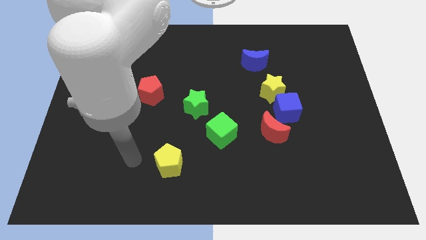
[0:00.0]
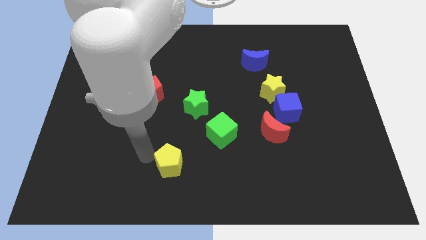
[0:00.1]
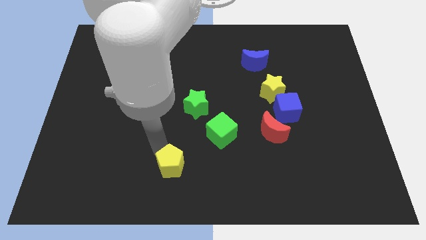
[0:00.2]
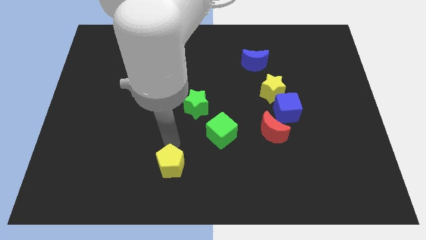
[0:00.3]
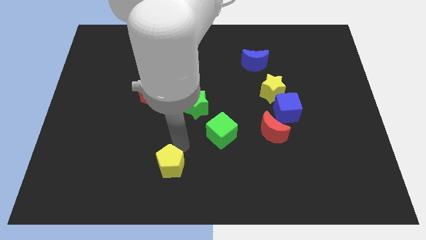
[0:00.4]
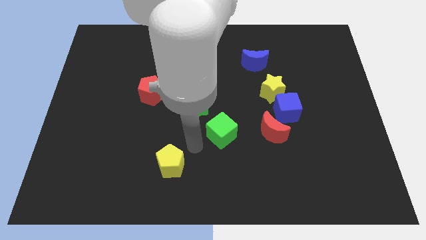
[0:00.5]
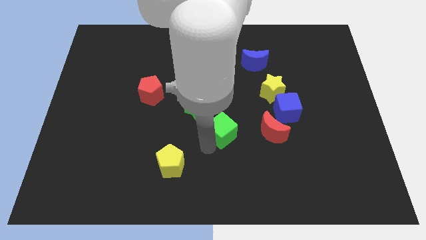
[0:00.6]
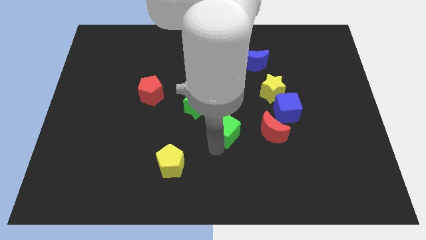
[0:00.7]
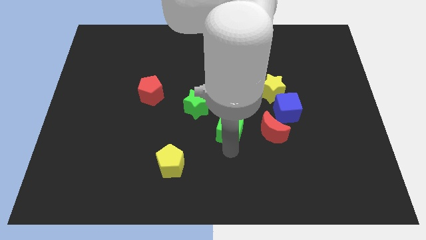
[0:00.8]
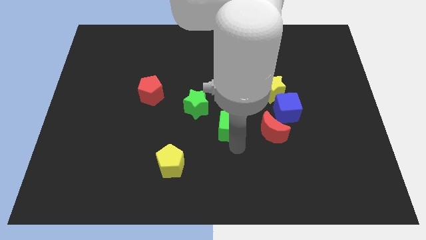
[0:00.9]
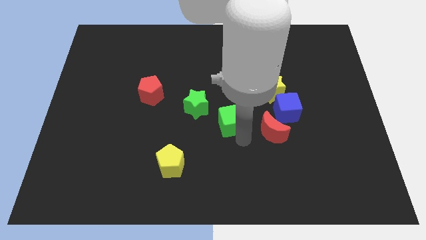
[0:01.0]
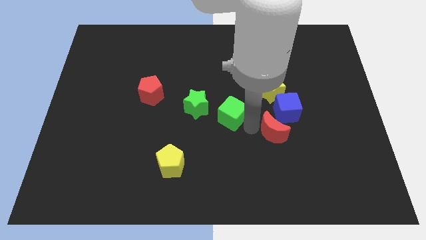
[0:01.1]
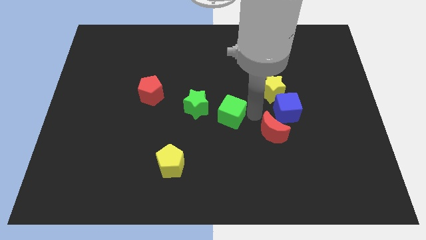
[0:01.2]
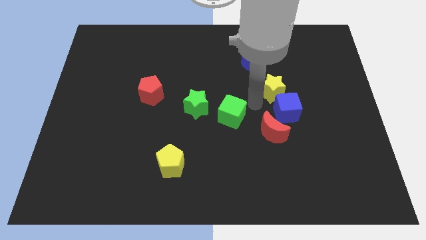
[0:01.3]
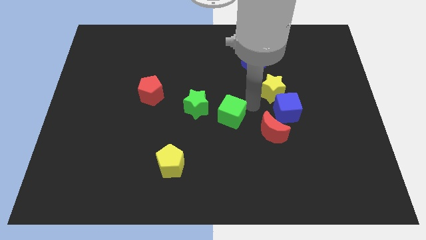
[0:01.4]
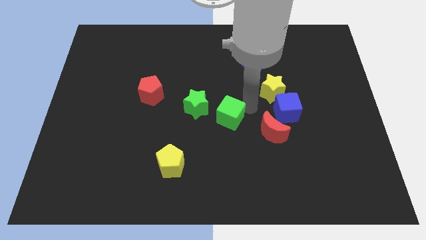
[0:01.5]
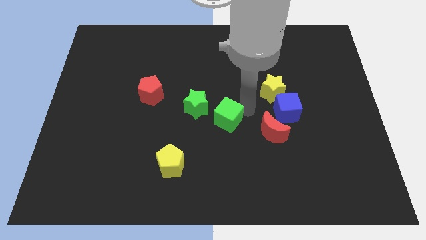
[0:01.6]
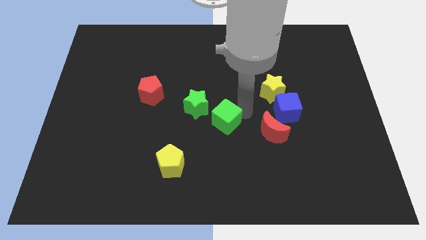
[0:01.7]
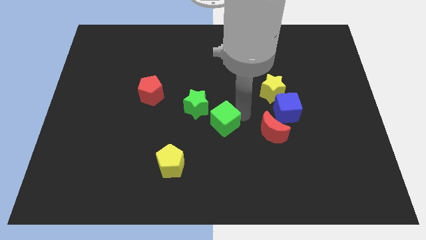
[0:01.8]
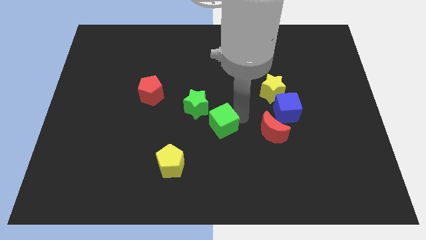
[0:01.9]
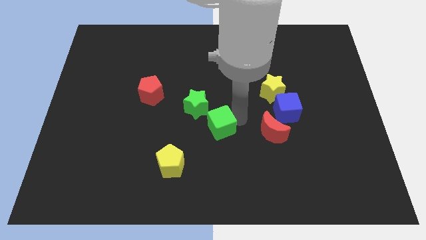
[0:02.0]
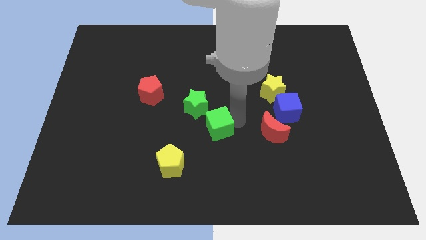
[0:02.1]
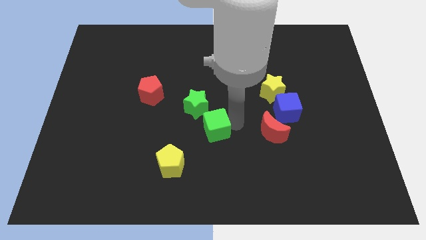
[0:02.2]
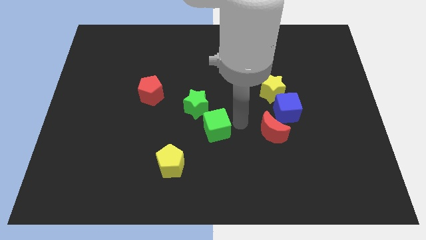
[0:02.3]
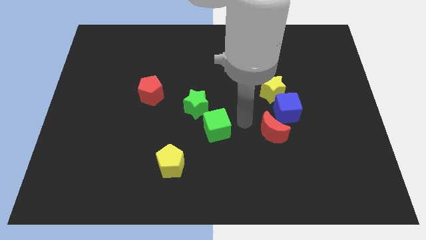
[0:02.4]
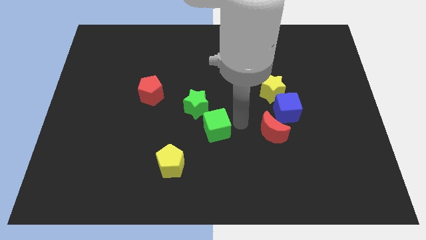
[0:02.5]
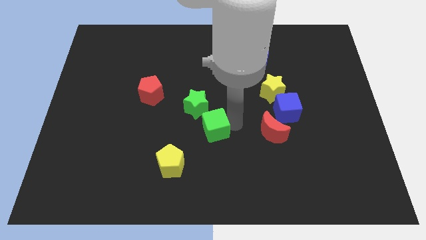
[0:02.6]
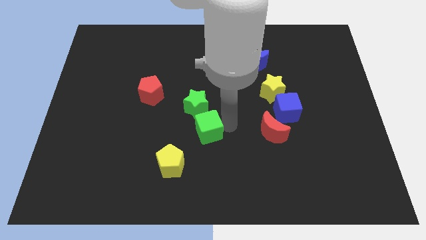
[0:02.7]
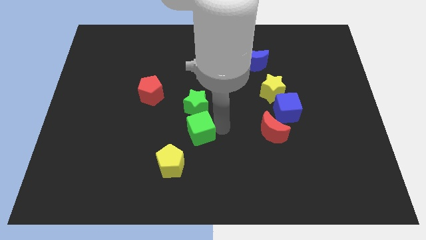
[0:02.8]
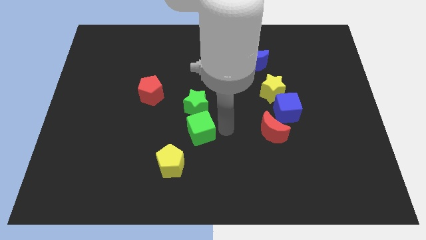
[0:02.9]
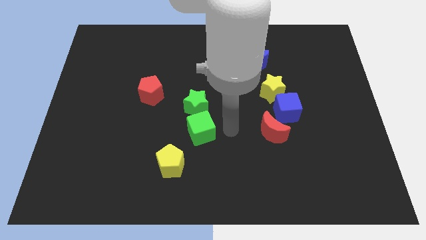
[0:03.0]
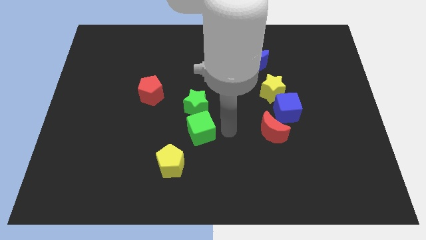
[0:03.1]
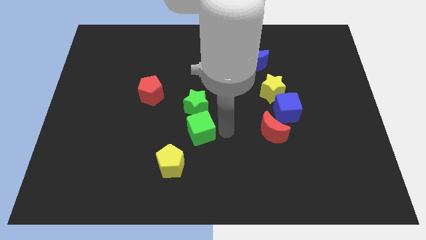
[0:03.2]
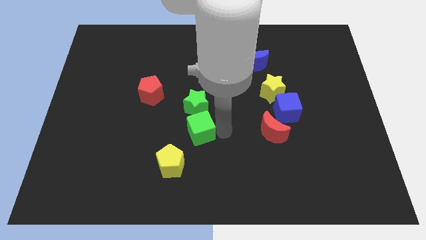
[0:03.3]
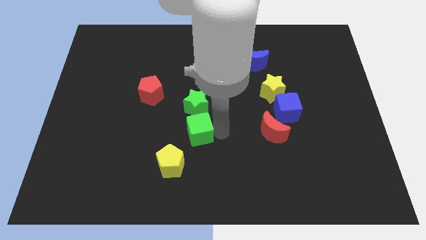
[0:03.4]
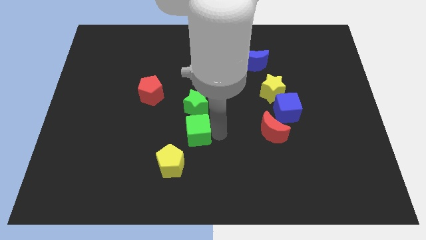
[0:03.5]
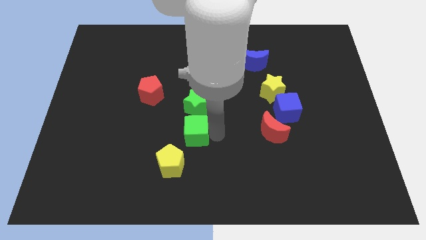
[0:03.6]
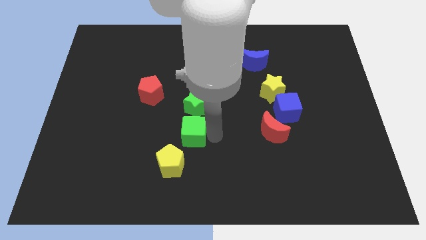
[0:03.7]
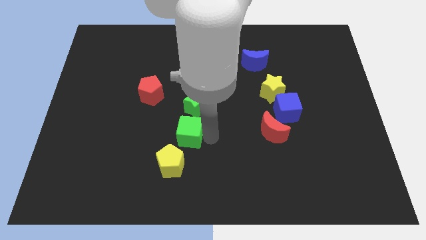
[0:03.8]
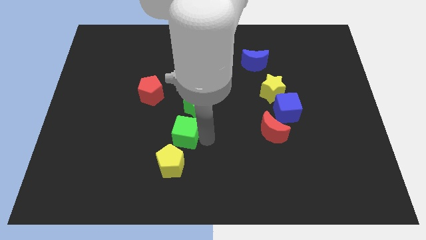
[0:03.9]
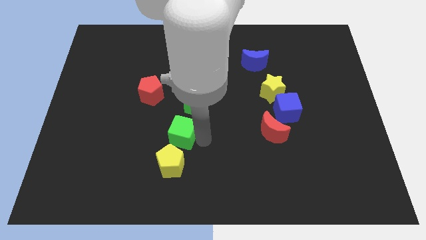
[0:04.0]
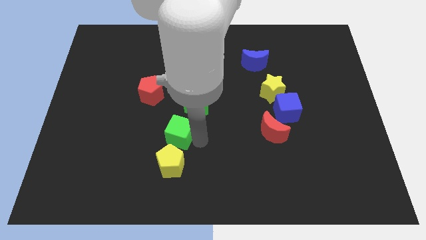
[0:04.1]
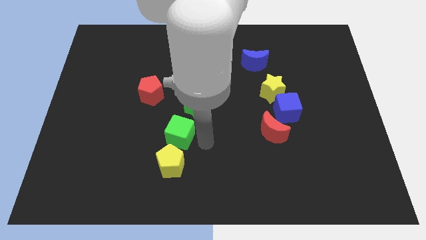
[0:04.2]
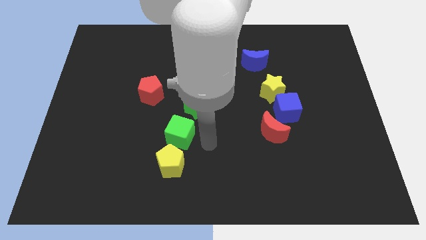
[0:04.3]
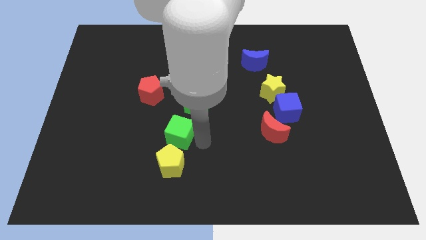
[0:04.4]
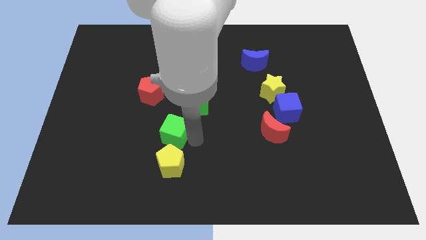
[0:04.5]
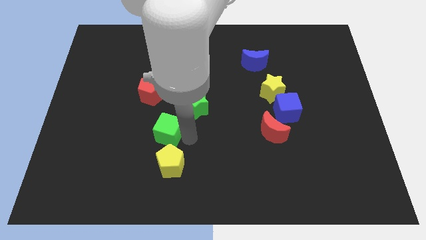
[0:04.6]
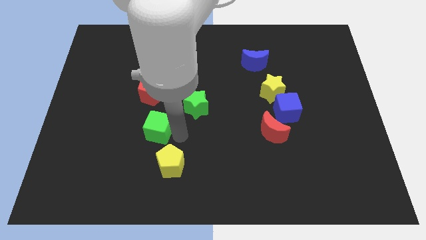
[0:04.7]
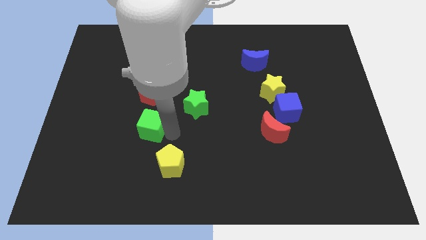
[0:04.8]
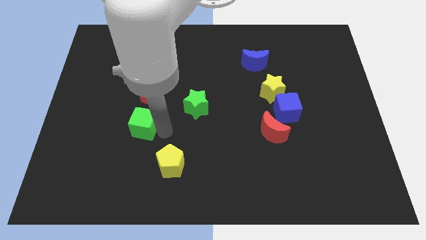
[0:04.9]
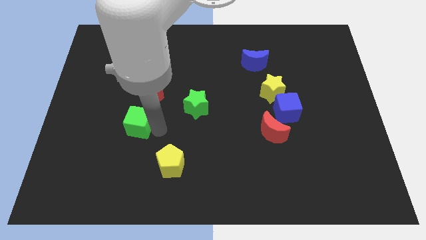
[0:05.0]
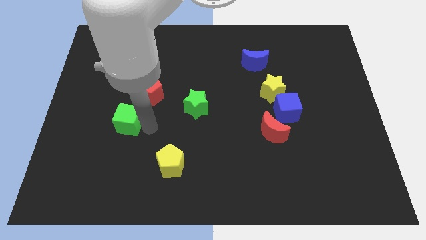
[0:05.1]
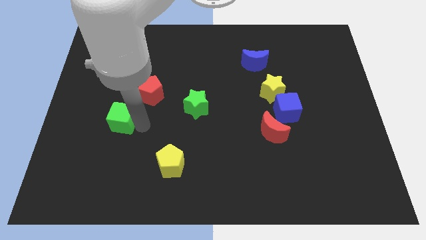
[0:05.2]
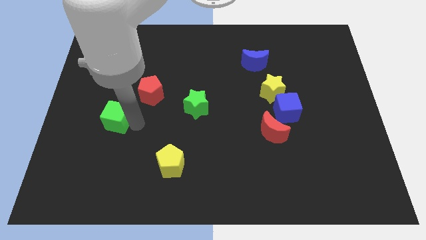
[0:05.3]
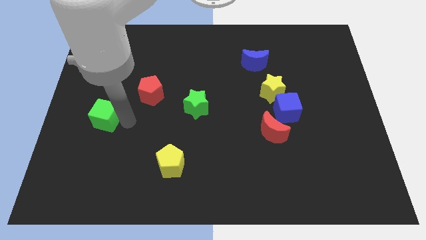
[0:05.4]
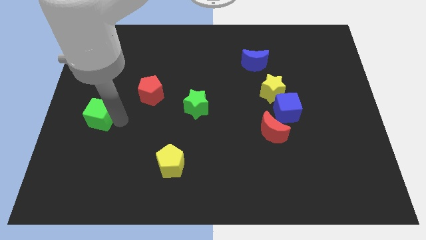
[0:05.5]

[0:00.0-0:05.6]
slide the green cube to the center left

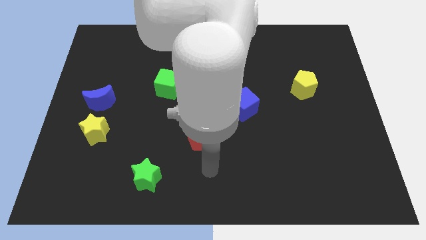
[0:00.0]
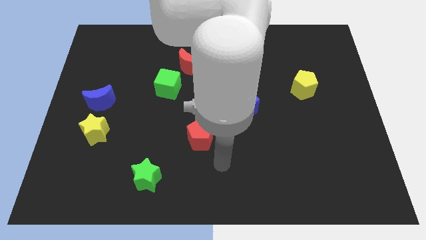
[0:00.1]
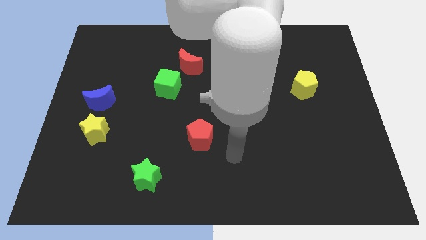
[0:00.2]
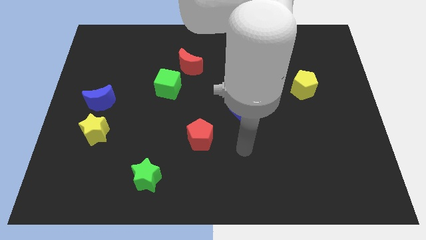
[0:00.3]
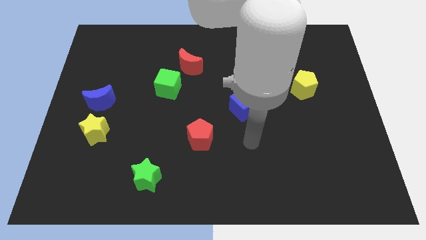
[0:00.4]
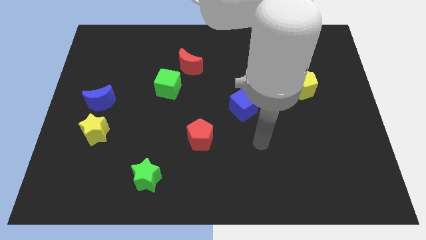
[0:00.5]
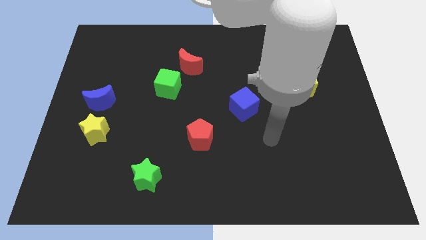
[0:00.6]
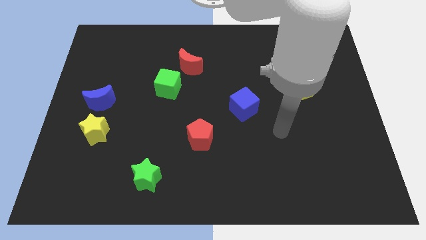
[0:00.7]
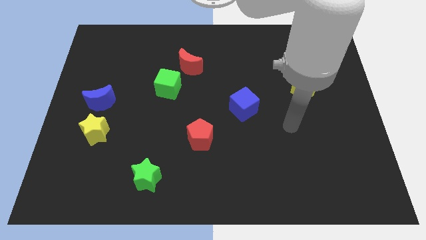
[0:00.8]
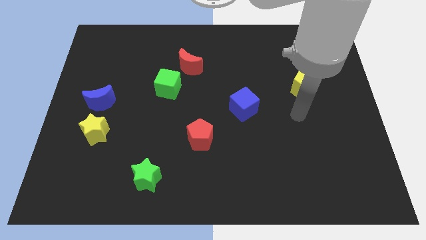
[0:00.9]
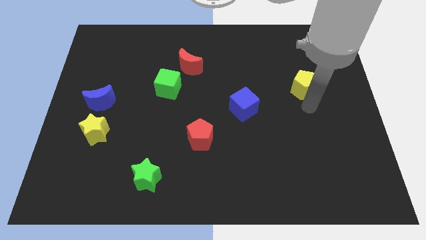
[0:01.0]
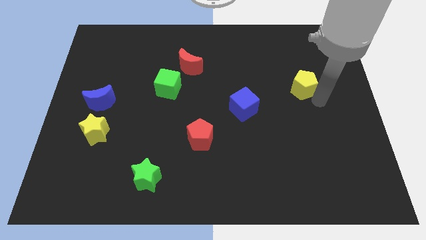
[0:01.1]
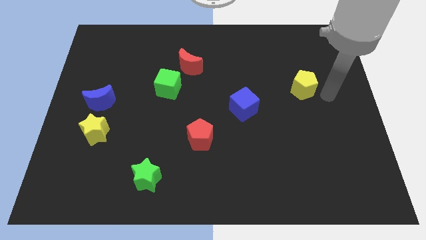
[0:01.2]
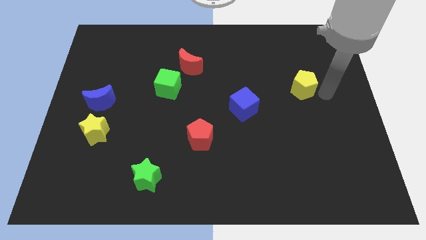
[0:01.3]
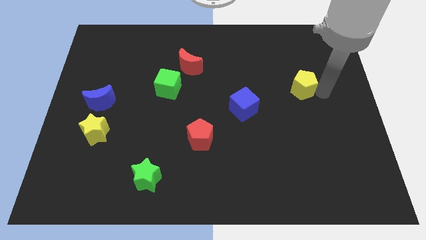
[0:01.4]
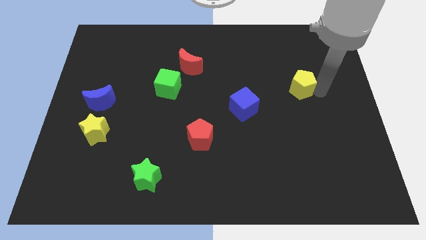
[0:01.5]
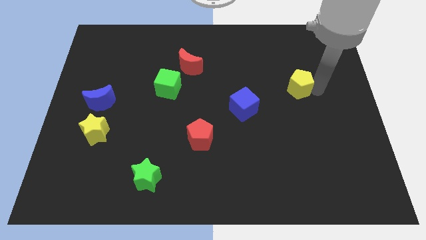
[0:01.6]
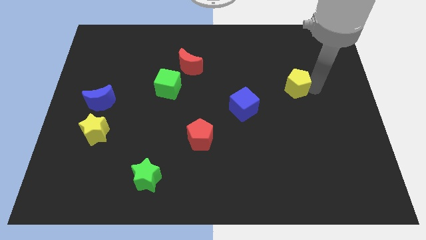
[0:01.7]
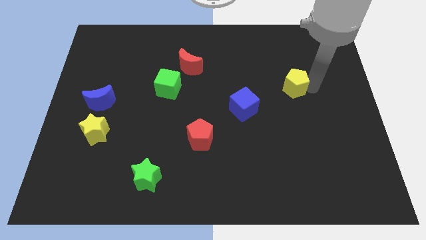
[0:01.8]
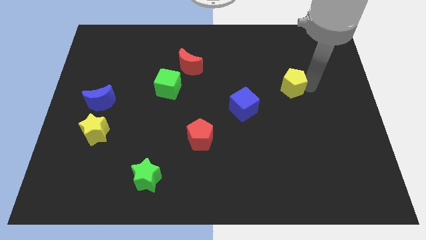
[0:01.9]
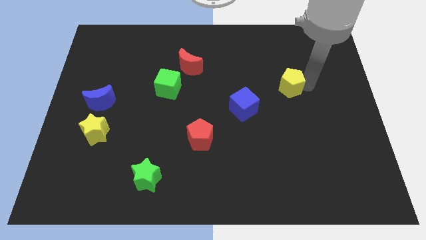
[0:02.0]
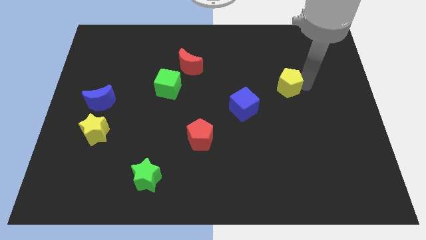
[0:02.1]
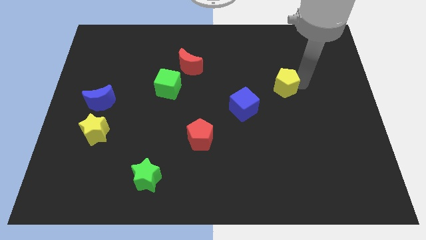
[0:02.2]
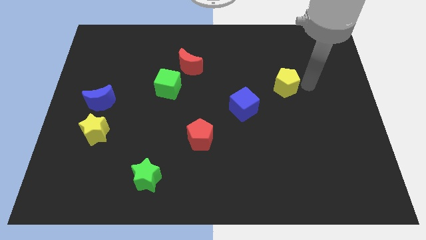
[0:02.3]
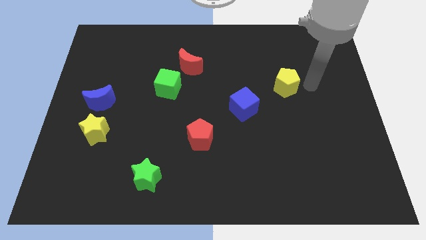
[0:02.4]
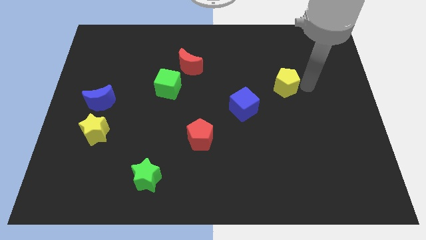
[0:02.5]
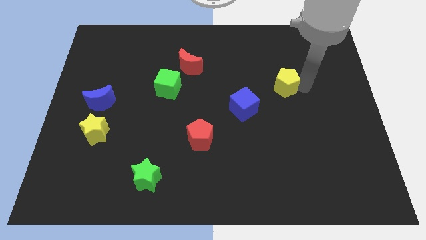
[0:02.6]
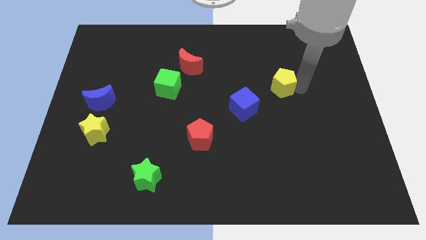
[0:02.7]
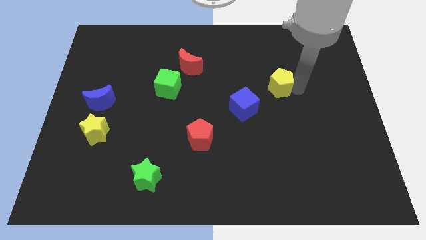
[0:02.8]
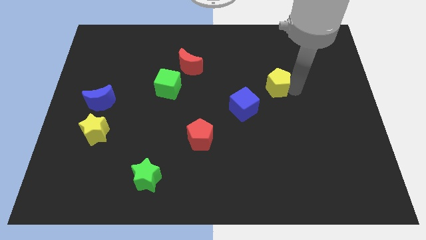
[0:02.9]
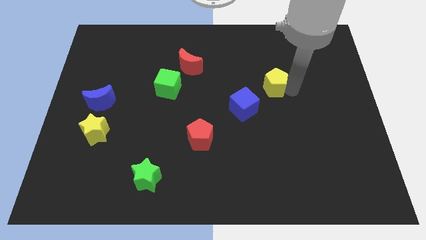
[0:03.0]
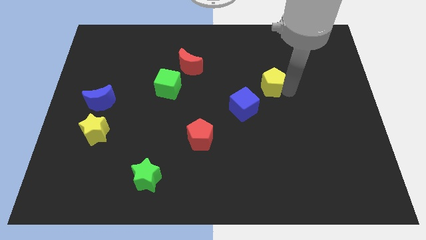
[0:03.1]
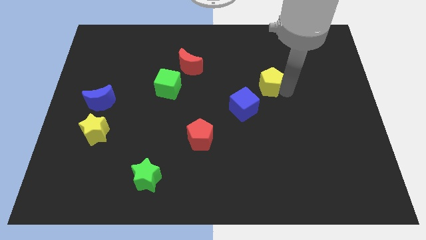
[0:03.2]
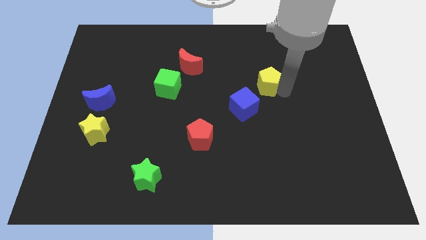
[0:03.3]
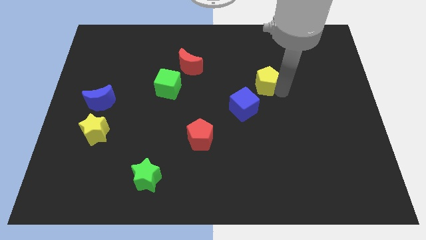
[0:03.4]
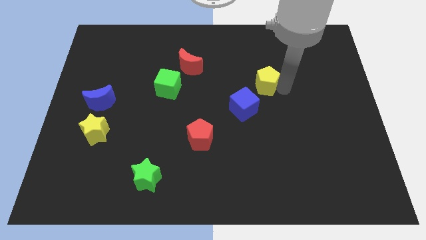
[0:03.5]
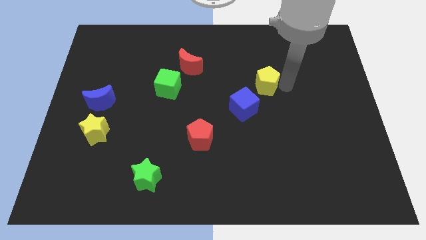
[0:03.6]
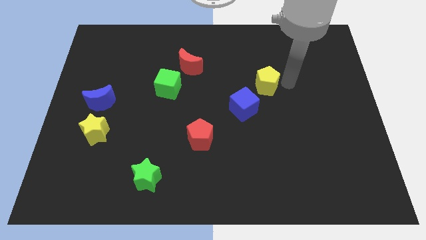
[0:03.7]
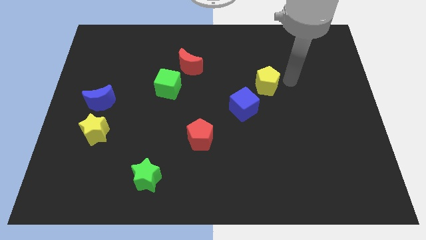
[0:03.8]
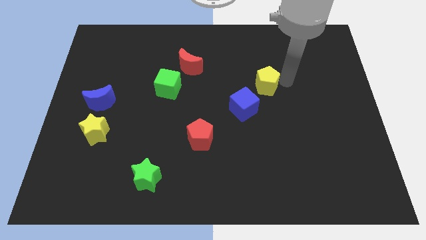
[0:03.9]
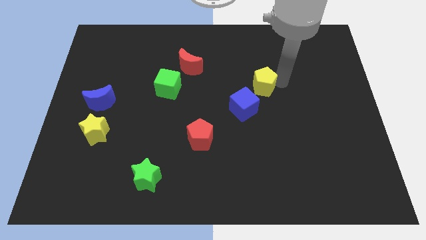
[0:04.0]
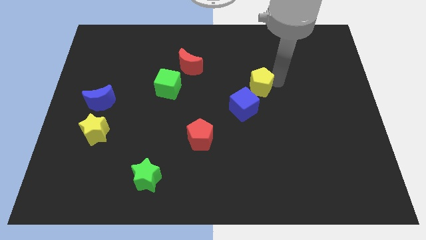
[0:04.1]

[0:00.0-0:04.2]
slide the yellow pentagon to the center of the board
